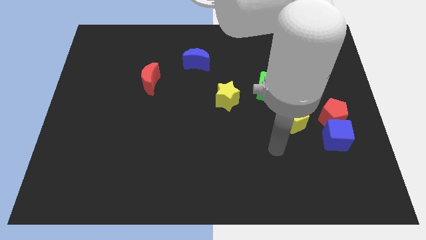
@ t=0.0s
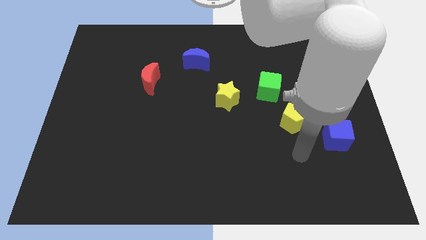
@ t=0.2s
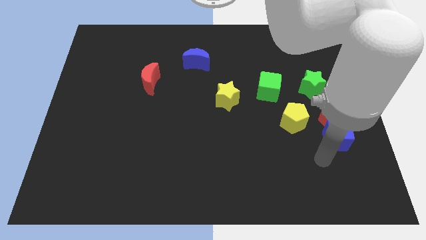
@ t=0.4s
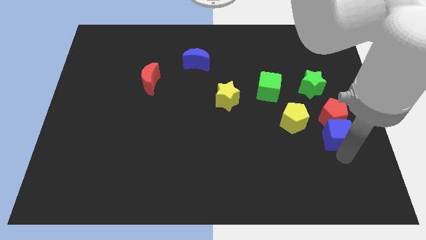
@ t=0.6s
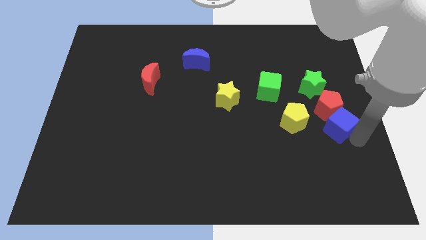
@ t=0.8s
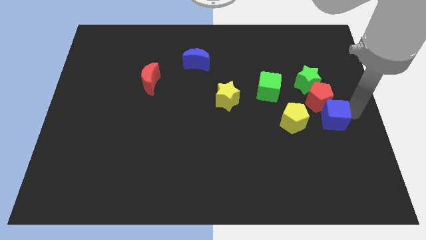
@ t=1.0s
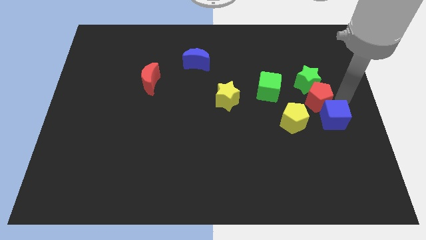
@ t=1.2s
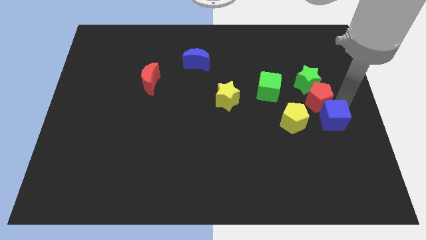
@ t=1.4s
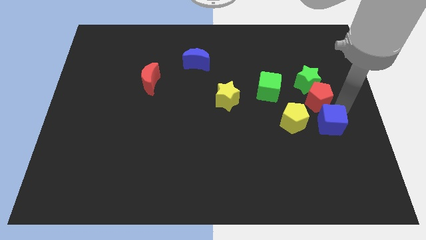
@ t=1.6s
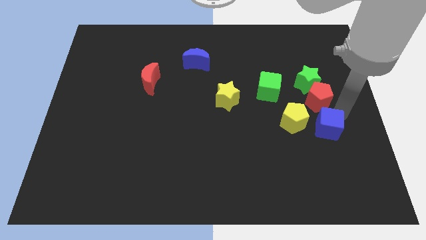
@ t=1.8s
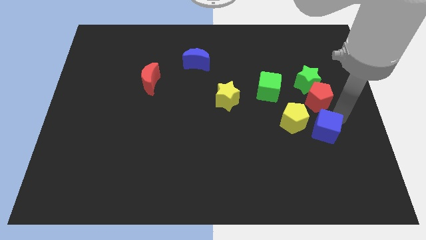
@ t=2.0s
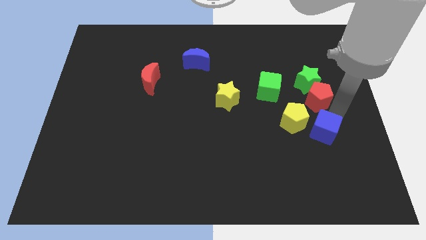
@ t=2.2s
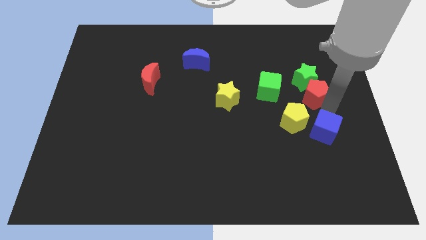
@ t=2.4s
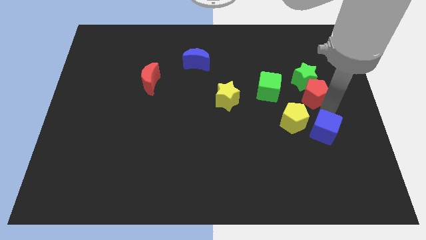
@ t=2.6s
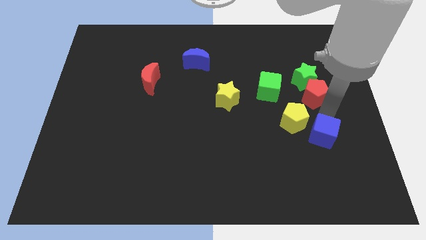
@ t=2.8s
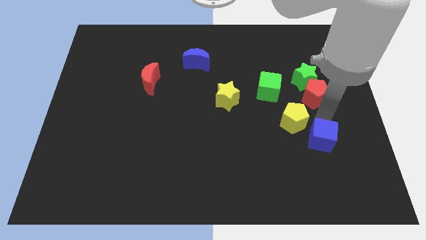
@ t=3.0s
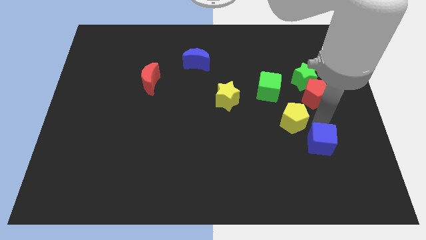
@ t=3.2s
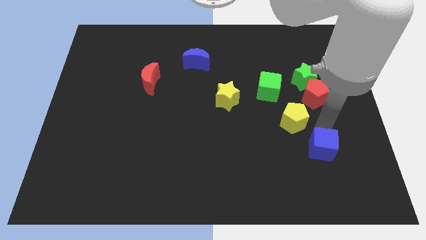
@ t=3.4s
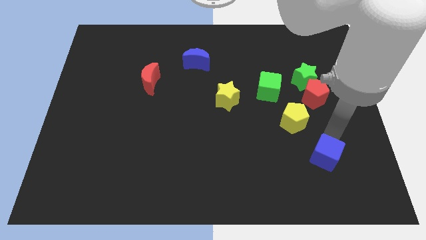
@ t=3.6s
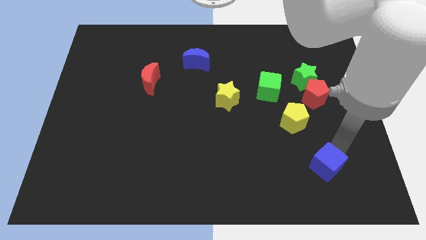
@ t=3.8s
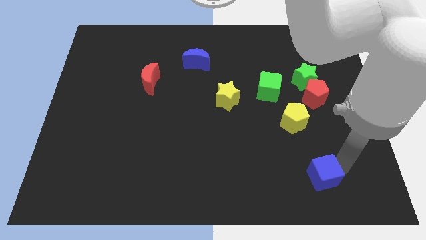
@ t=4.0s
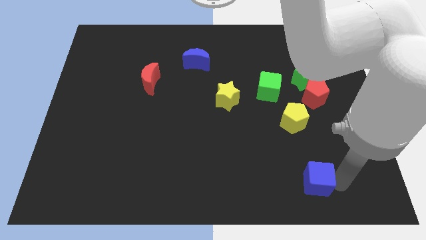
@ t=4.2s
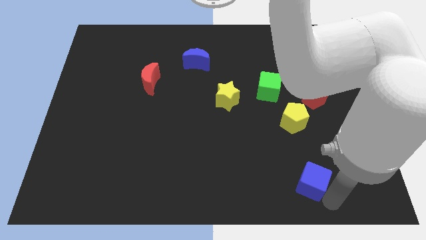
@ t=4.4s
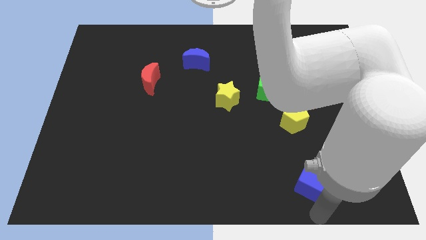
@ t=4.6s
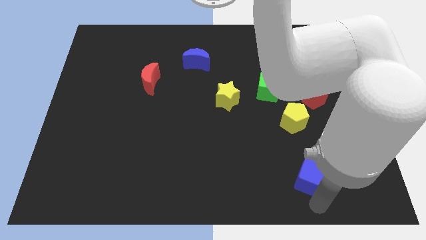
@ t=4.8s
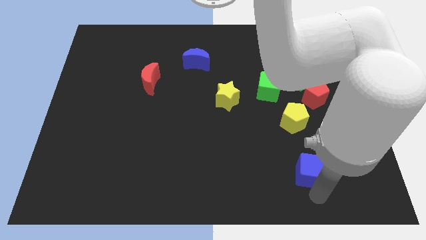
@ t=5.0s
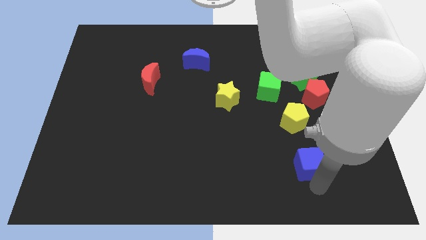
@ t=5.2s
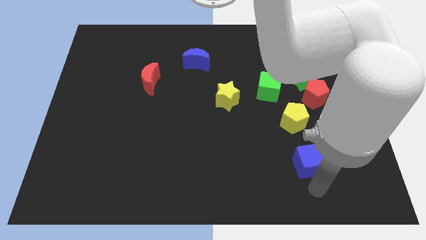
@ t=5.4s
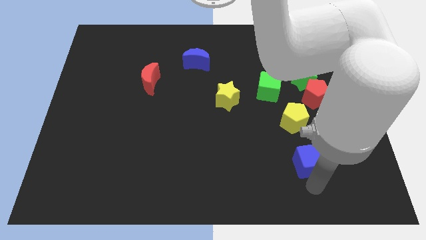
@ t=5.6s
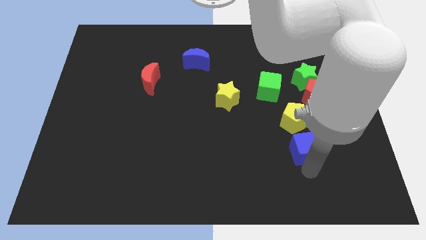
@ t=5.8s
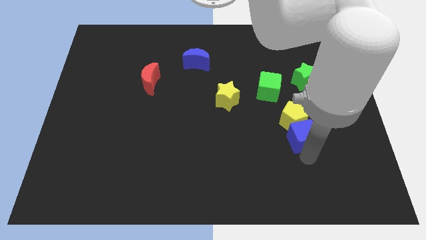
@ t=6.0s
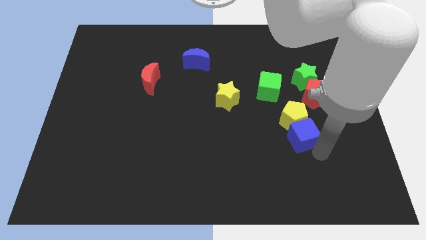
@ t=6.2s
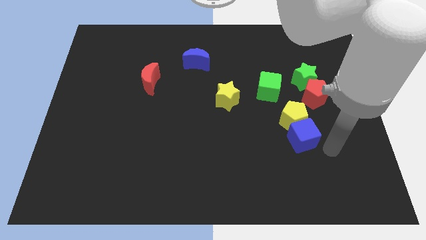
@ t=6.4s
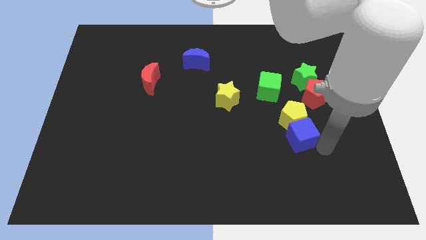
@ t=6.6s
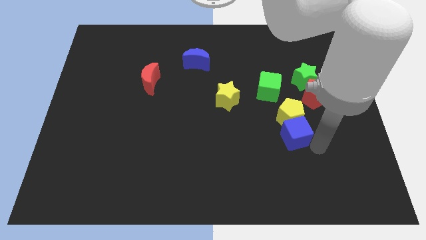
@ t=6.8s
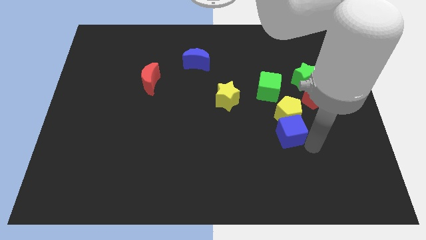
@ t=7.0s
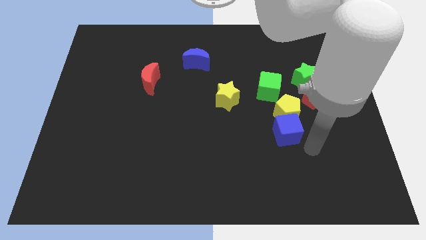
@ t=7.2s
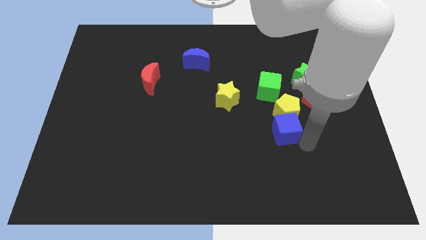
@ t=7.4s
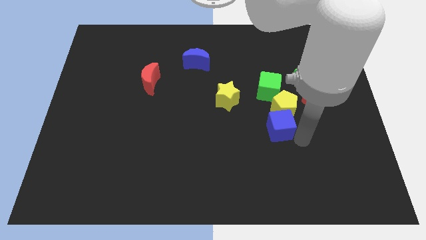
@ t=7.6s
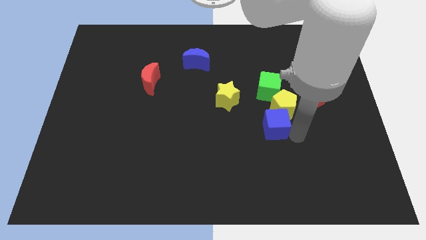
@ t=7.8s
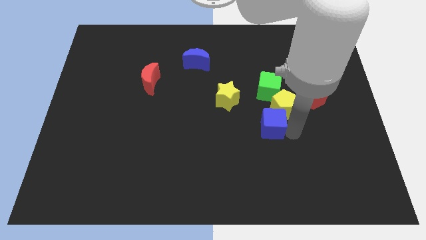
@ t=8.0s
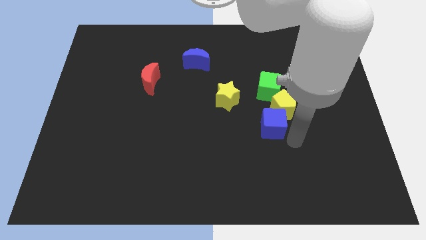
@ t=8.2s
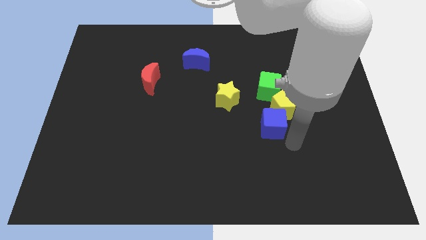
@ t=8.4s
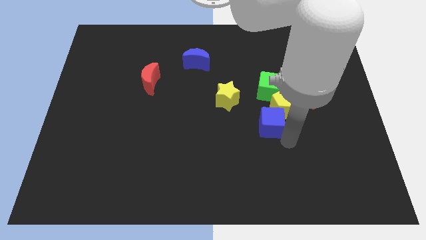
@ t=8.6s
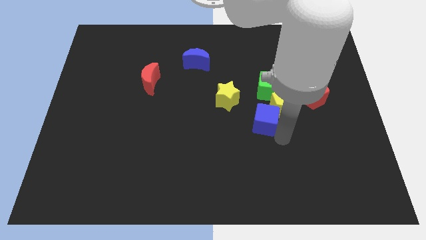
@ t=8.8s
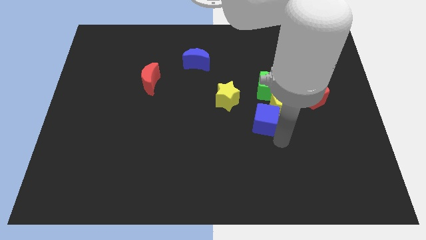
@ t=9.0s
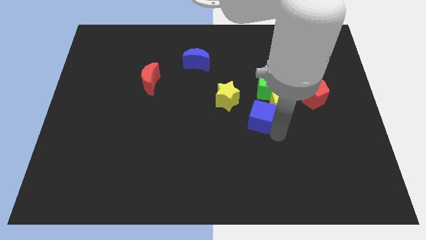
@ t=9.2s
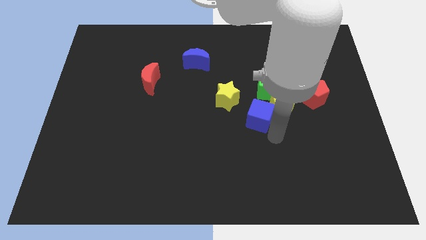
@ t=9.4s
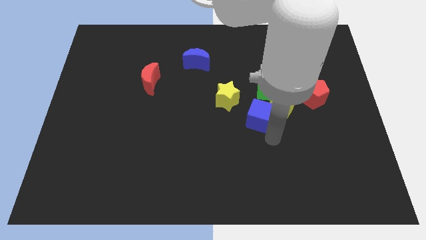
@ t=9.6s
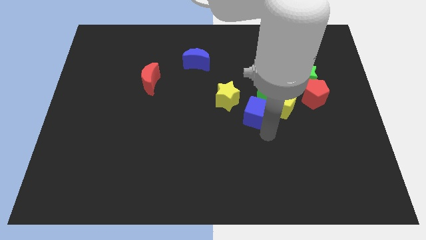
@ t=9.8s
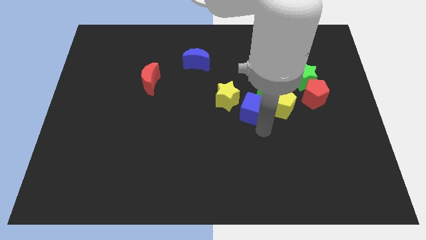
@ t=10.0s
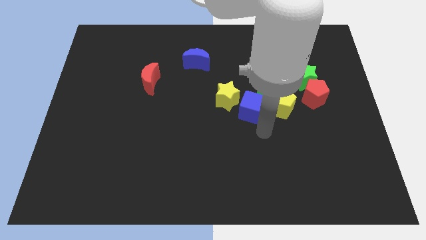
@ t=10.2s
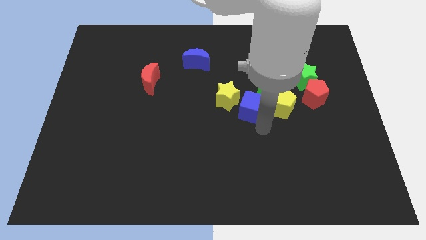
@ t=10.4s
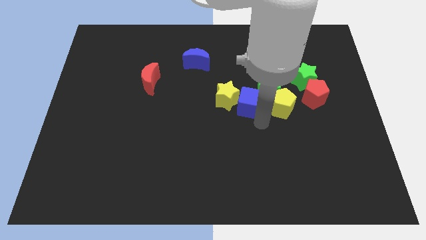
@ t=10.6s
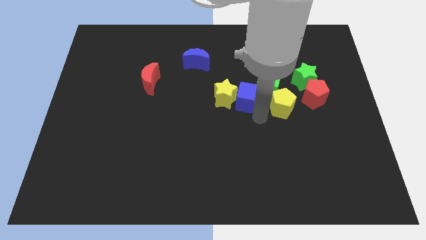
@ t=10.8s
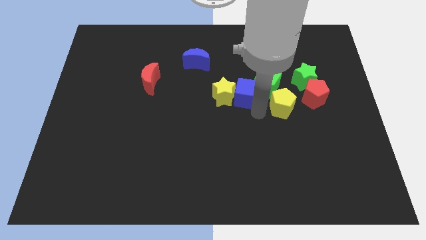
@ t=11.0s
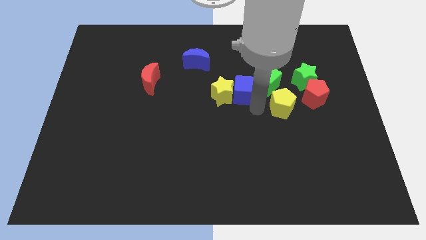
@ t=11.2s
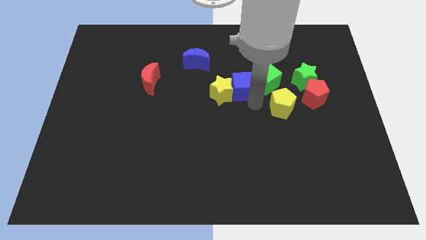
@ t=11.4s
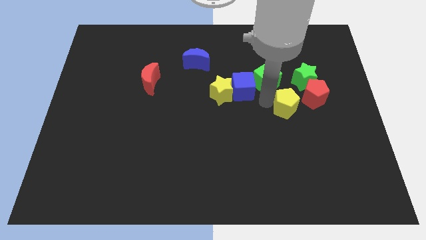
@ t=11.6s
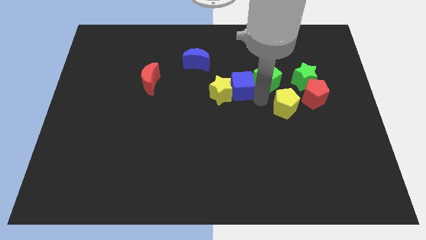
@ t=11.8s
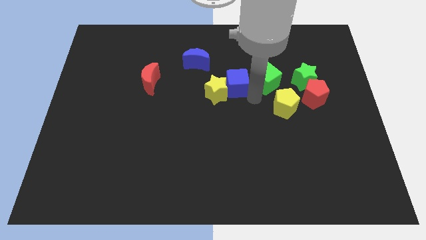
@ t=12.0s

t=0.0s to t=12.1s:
slide the blue cube diagonally down and to the right of the blue moon
